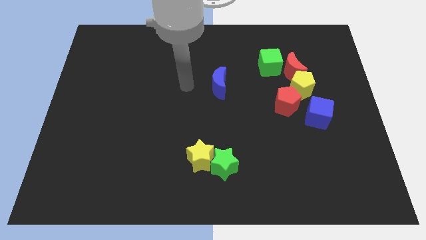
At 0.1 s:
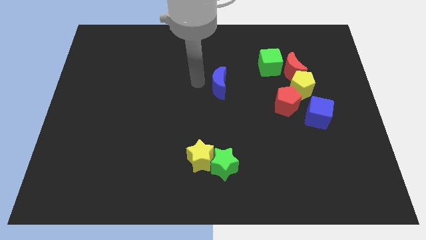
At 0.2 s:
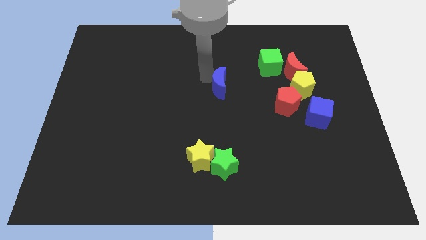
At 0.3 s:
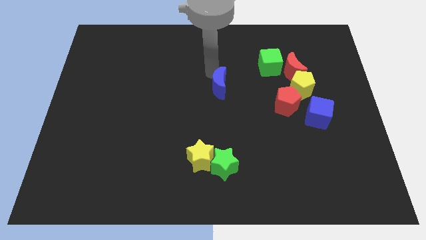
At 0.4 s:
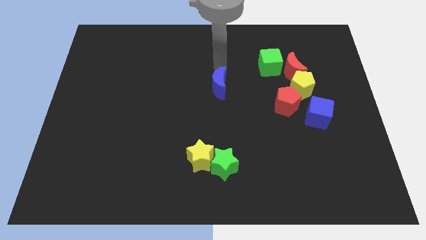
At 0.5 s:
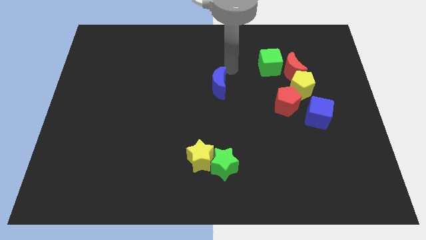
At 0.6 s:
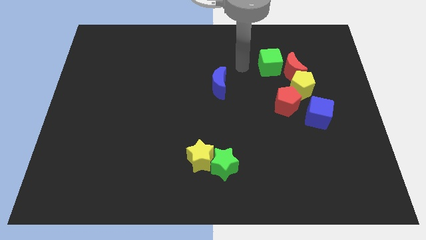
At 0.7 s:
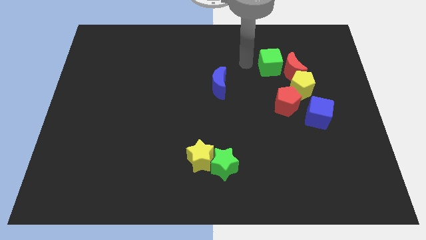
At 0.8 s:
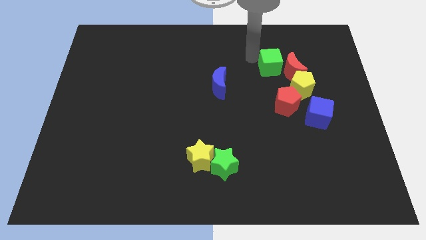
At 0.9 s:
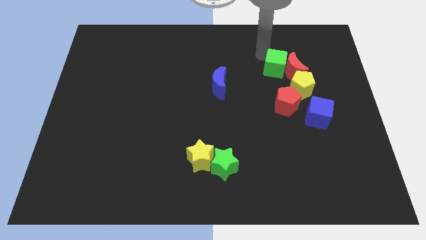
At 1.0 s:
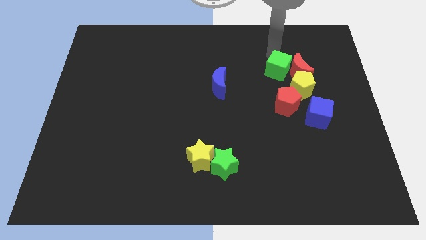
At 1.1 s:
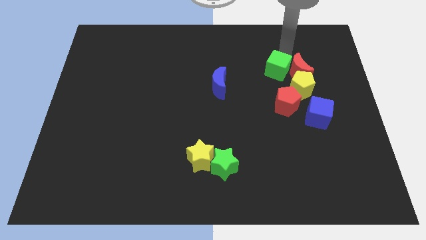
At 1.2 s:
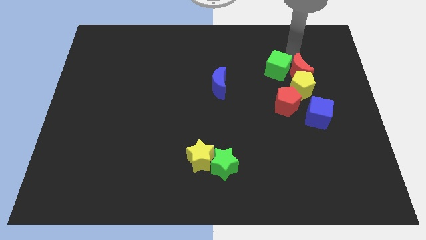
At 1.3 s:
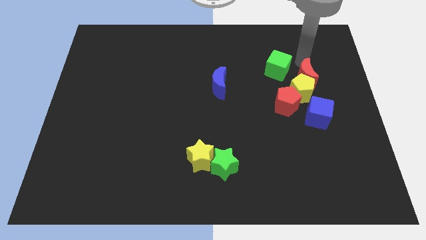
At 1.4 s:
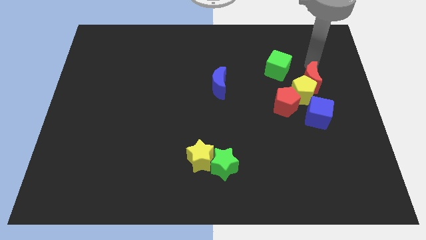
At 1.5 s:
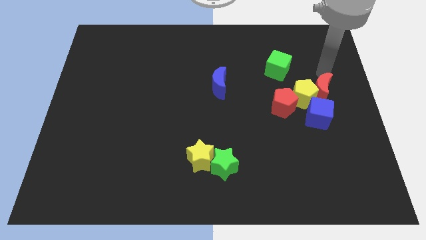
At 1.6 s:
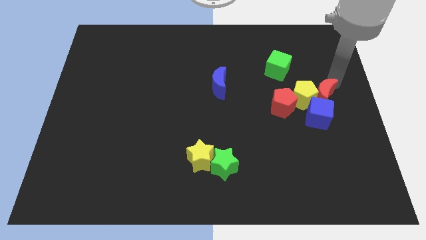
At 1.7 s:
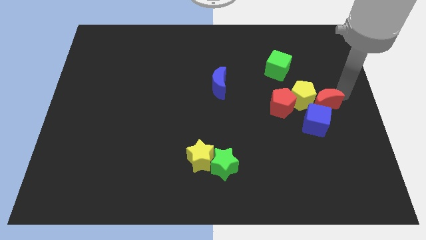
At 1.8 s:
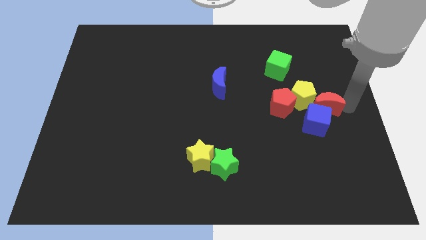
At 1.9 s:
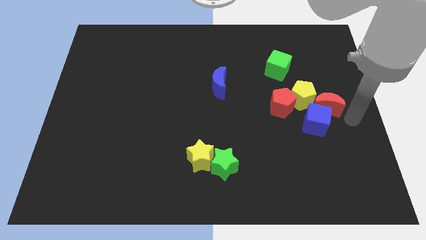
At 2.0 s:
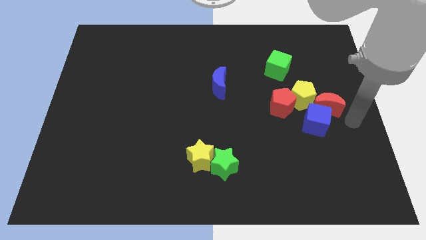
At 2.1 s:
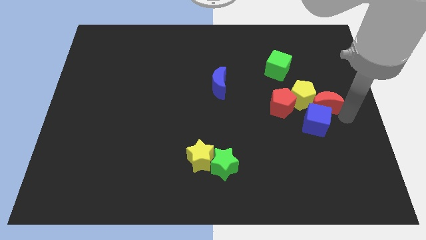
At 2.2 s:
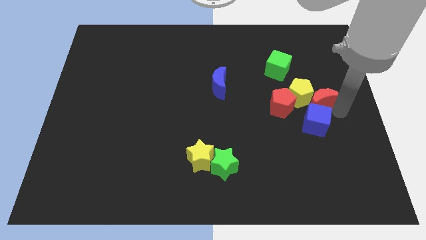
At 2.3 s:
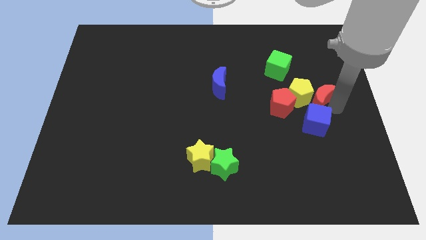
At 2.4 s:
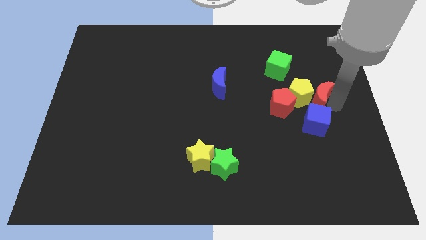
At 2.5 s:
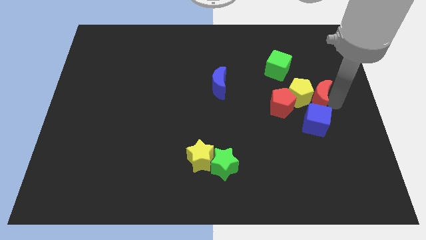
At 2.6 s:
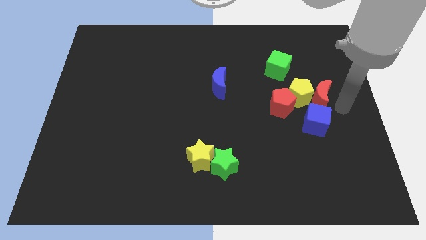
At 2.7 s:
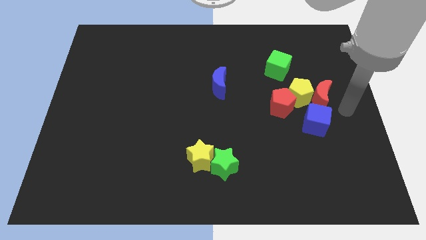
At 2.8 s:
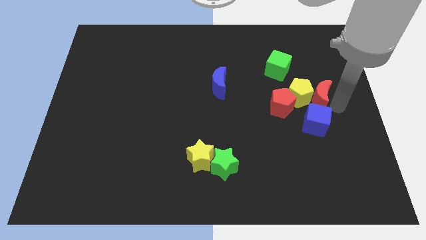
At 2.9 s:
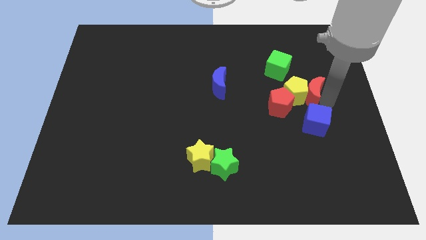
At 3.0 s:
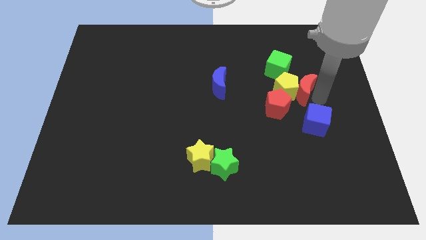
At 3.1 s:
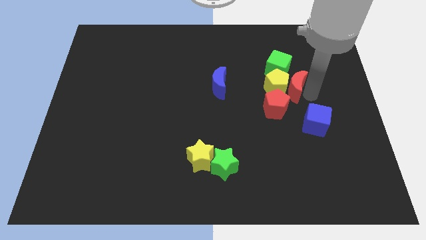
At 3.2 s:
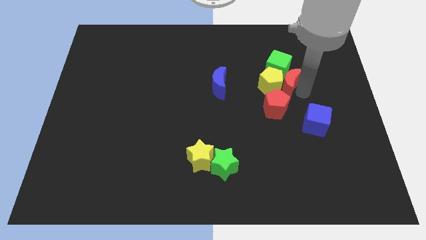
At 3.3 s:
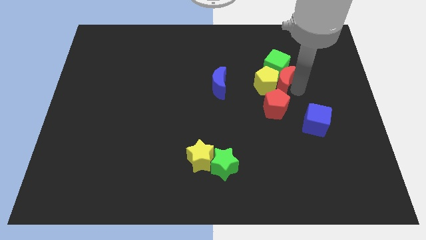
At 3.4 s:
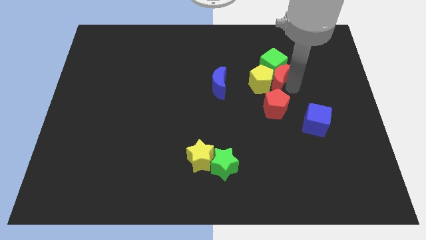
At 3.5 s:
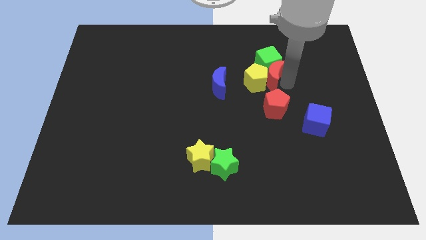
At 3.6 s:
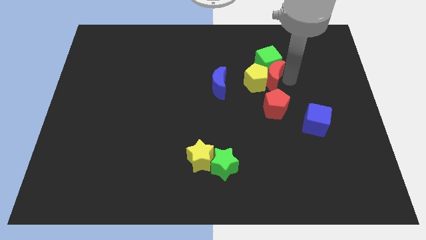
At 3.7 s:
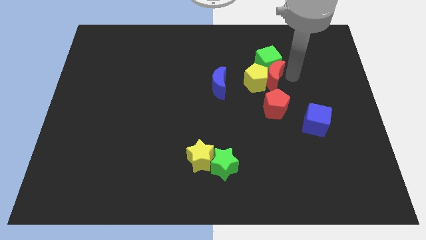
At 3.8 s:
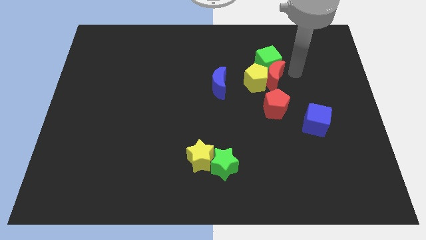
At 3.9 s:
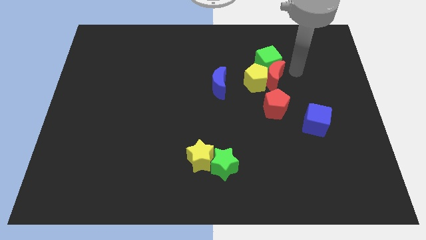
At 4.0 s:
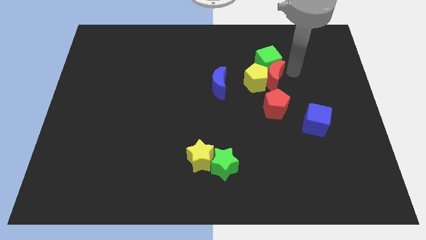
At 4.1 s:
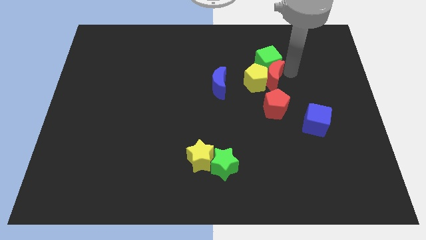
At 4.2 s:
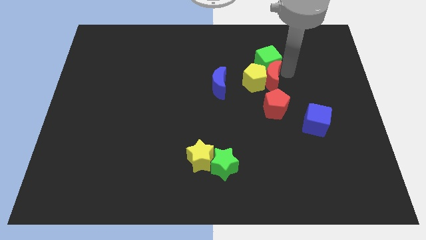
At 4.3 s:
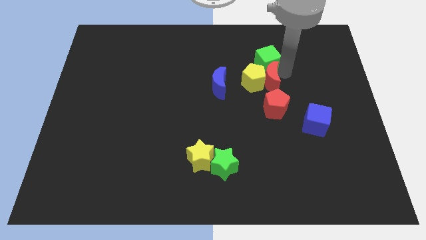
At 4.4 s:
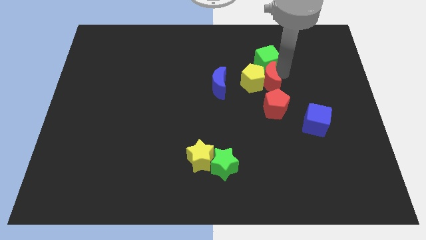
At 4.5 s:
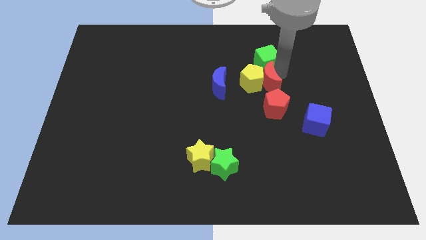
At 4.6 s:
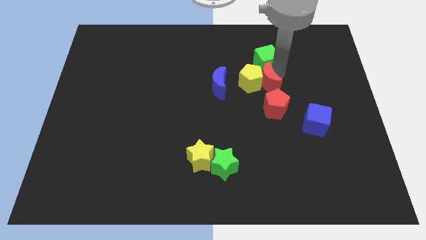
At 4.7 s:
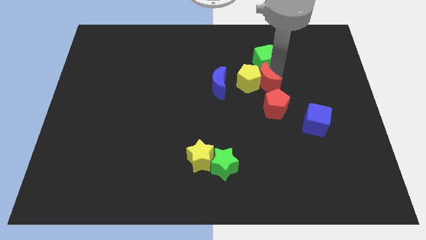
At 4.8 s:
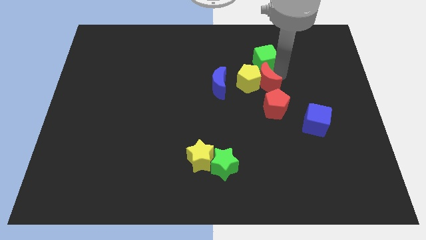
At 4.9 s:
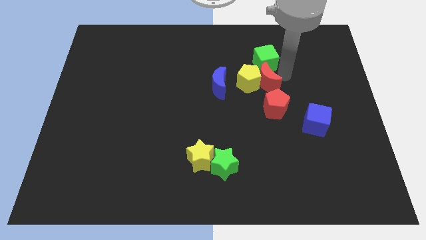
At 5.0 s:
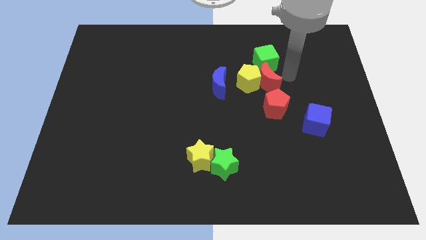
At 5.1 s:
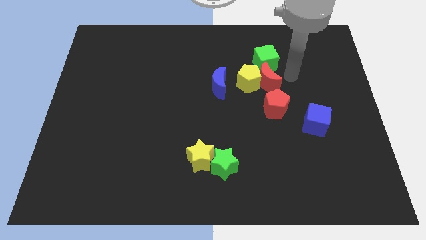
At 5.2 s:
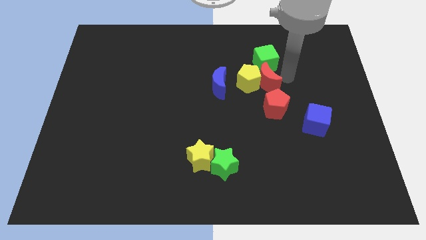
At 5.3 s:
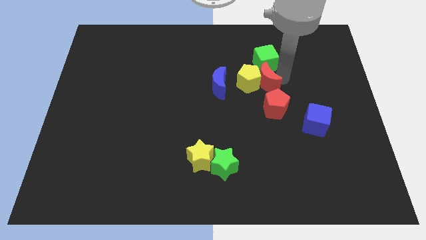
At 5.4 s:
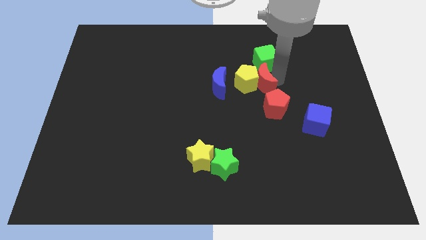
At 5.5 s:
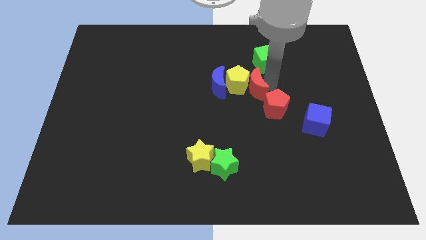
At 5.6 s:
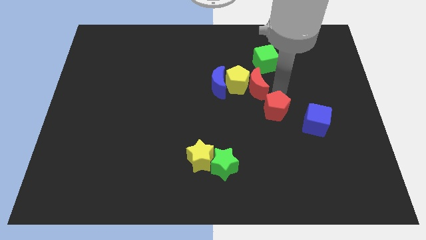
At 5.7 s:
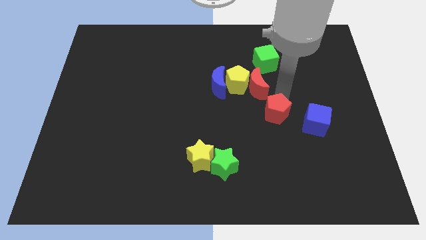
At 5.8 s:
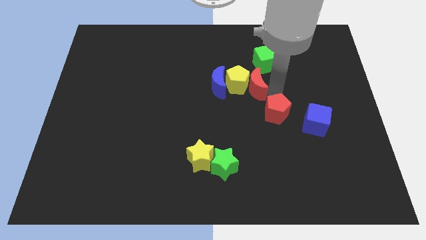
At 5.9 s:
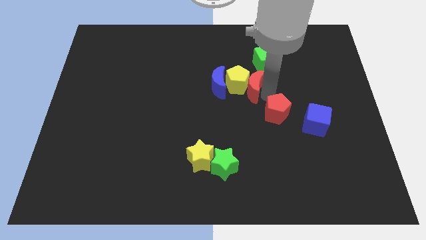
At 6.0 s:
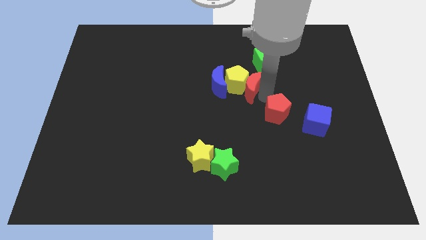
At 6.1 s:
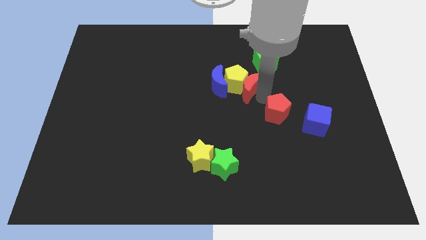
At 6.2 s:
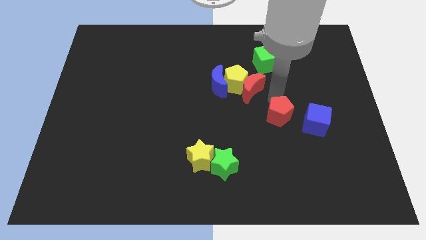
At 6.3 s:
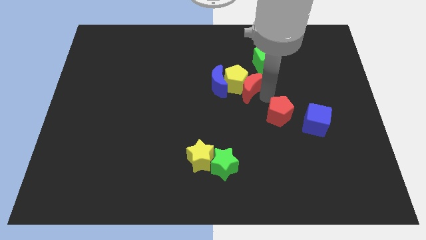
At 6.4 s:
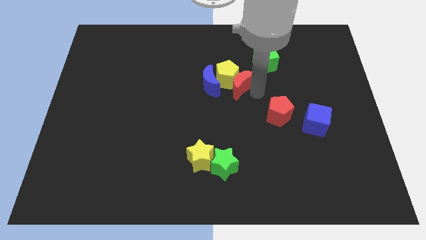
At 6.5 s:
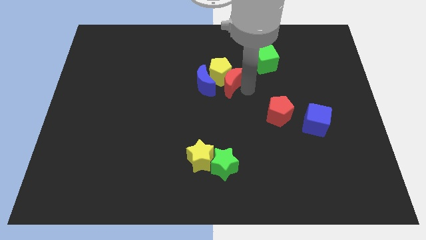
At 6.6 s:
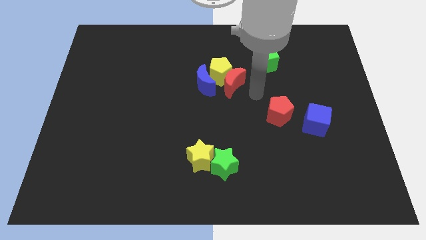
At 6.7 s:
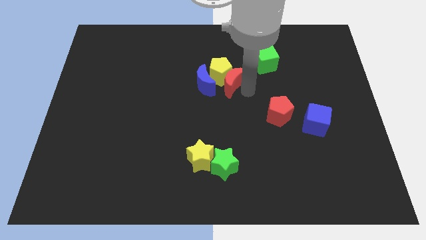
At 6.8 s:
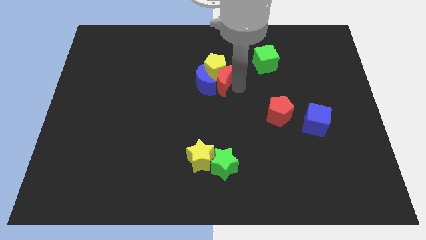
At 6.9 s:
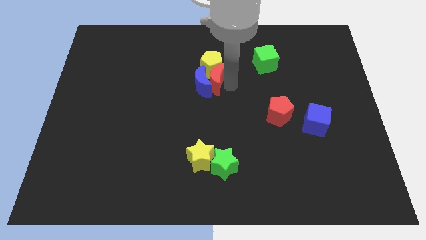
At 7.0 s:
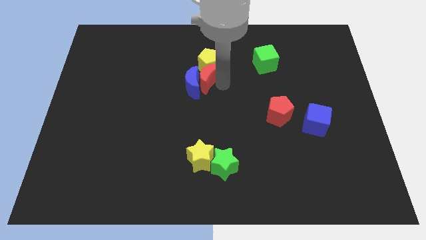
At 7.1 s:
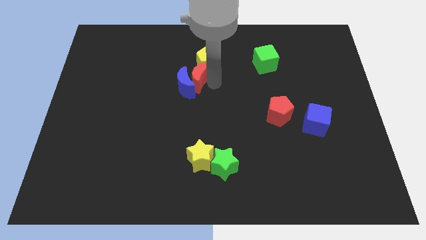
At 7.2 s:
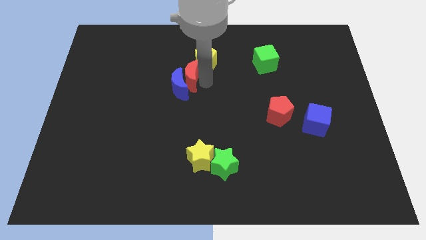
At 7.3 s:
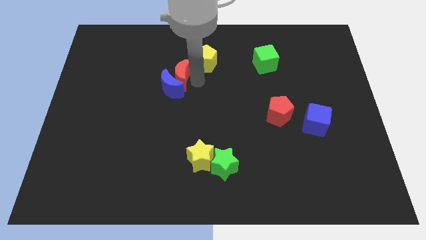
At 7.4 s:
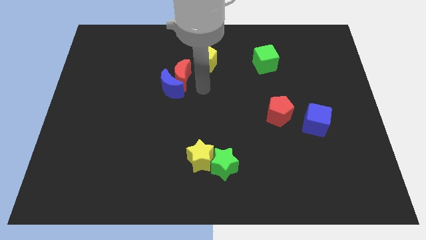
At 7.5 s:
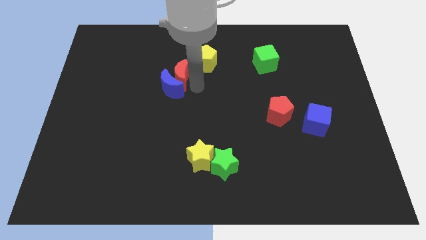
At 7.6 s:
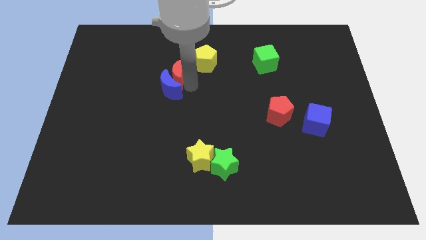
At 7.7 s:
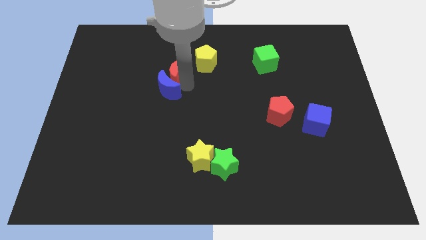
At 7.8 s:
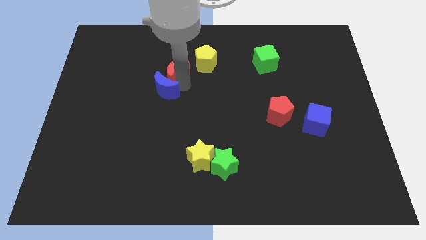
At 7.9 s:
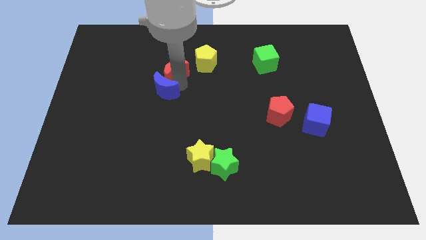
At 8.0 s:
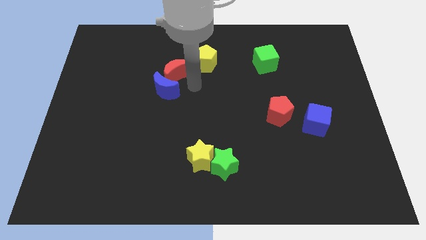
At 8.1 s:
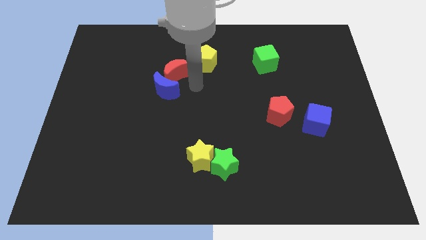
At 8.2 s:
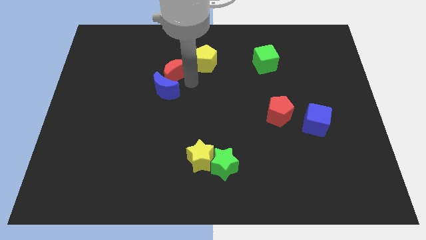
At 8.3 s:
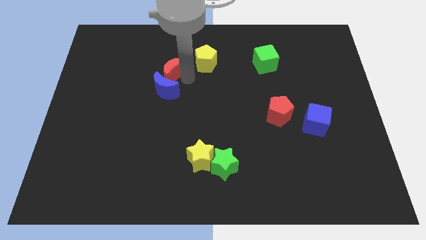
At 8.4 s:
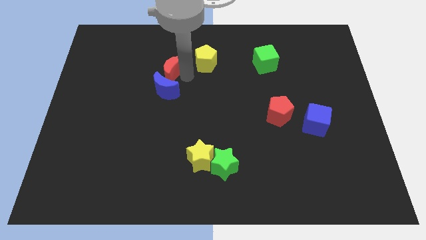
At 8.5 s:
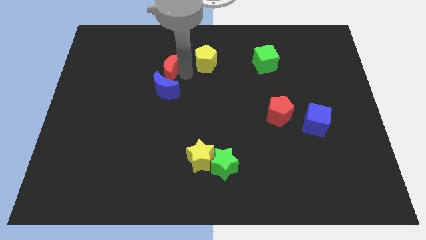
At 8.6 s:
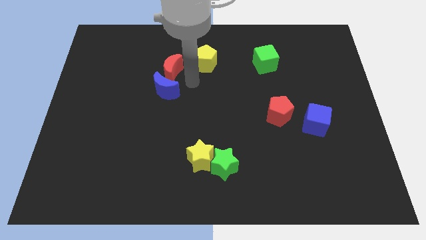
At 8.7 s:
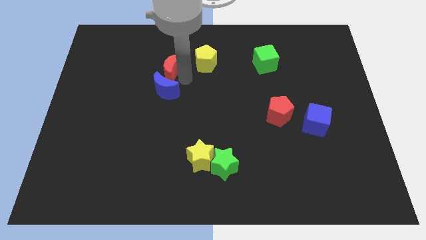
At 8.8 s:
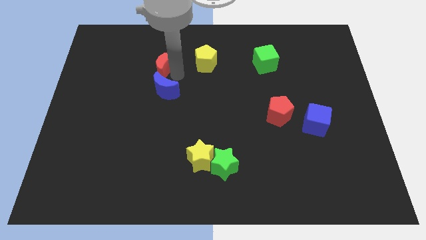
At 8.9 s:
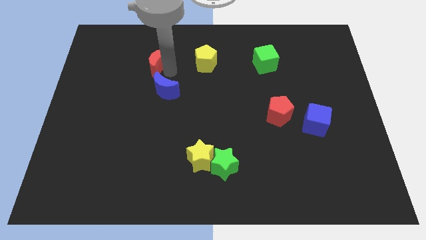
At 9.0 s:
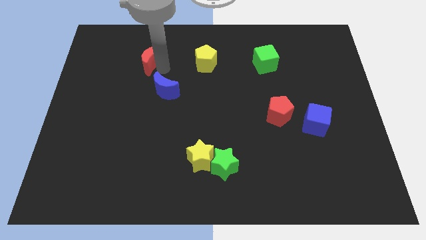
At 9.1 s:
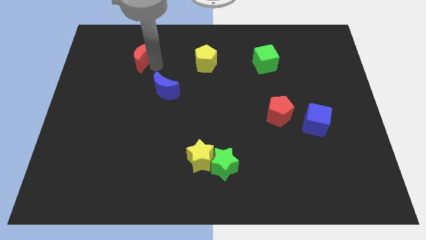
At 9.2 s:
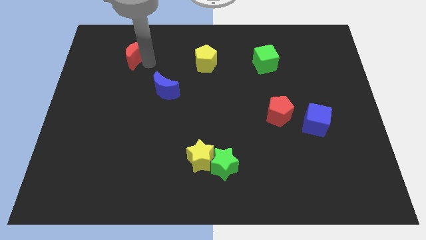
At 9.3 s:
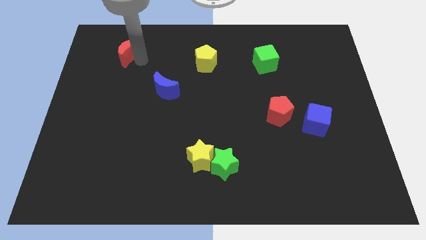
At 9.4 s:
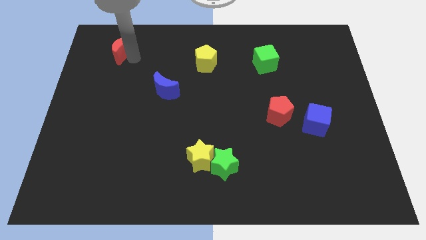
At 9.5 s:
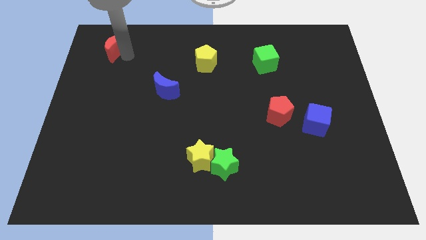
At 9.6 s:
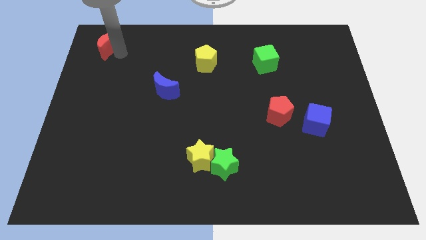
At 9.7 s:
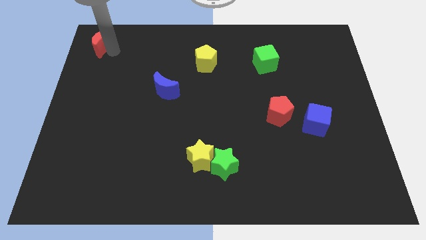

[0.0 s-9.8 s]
slide the red moon to the top left corner
